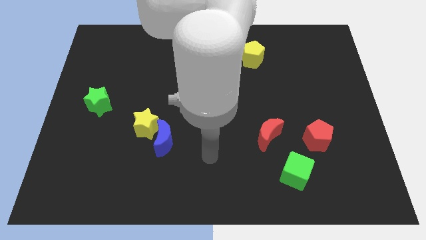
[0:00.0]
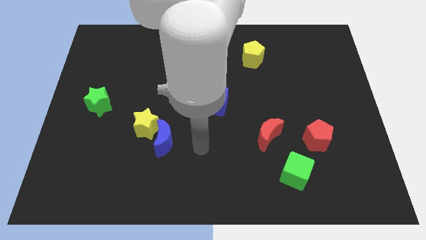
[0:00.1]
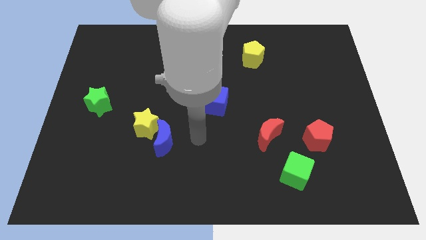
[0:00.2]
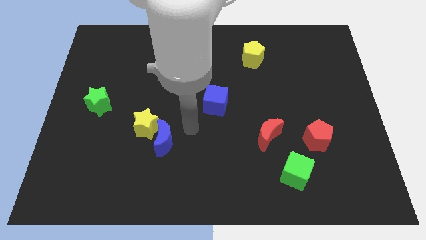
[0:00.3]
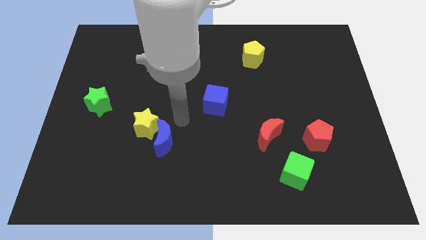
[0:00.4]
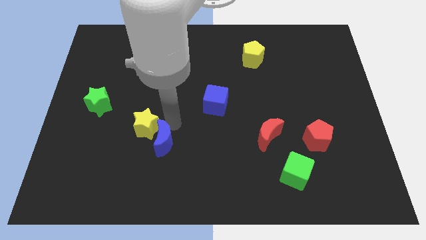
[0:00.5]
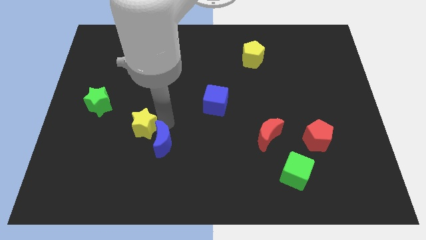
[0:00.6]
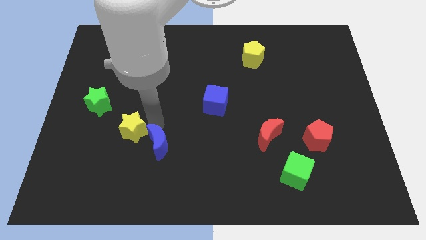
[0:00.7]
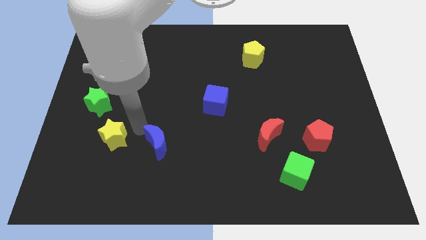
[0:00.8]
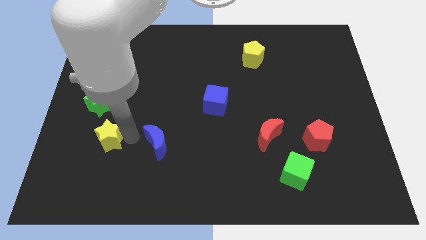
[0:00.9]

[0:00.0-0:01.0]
separate the blue moon from the yellow star

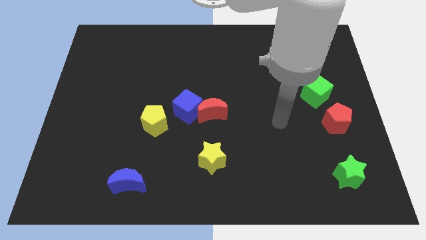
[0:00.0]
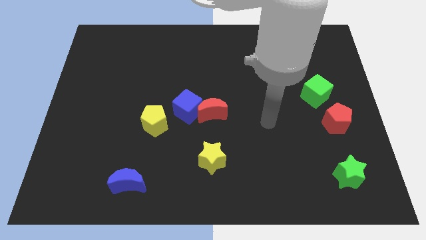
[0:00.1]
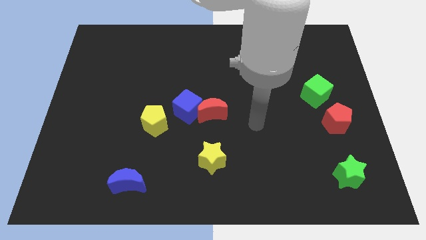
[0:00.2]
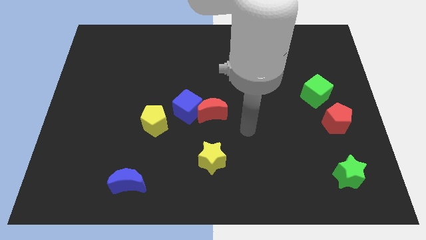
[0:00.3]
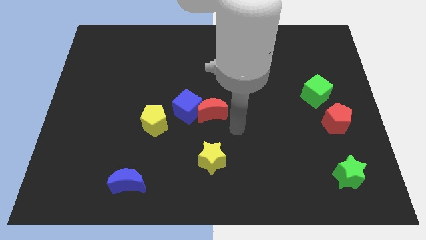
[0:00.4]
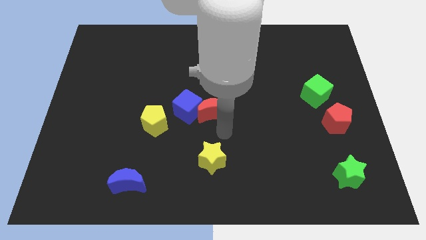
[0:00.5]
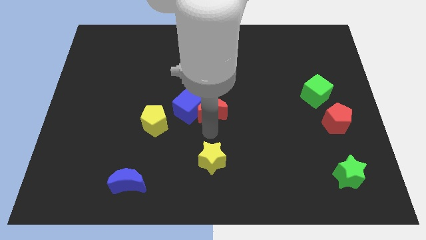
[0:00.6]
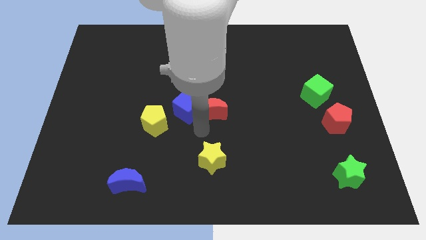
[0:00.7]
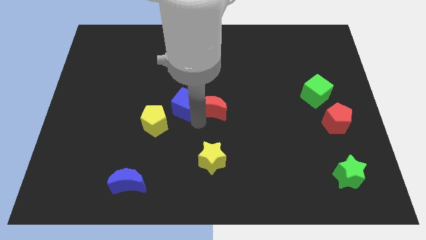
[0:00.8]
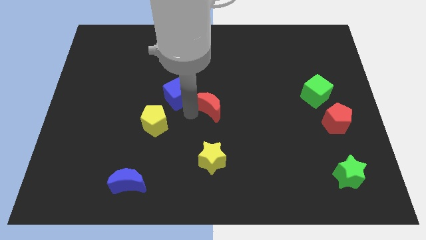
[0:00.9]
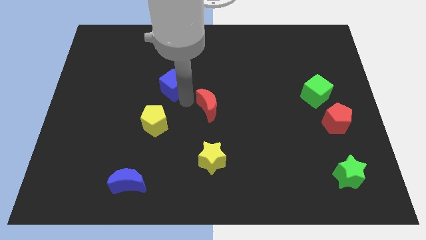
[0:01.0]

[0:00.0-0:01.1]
pull the red moon apart from the blue cube

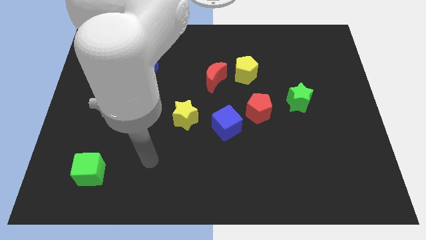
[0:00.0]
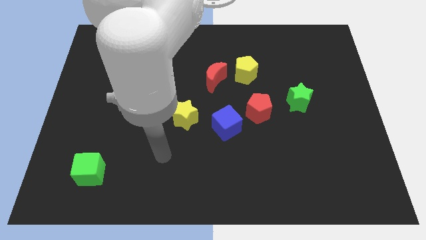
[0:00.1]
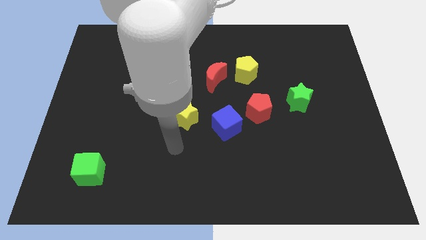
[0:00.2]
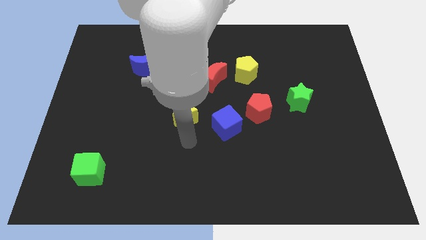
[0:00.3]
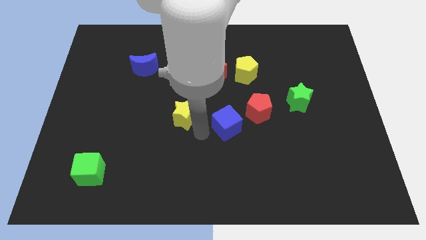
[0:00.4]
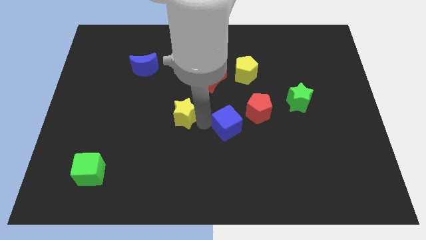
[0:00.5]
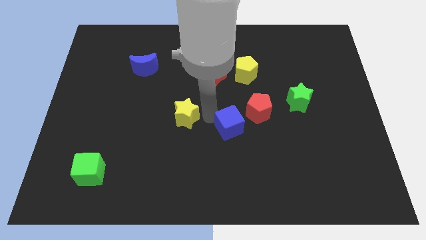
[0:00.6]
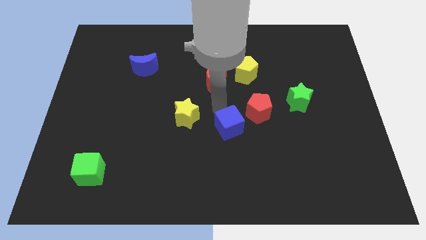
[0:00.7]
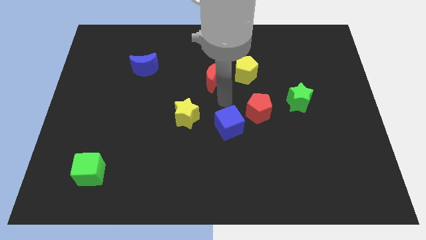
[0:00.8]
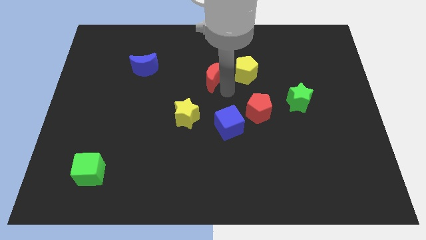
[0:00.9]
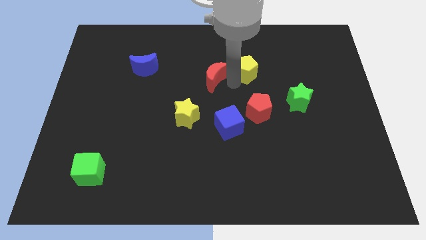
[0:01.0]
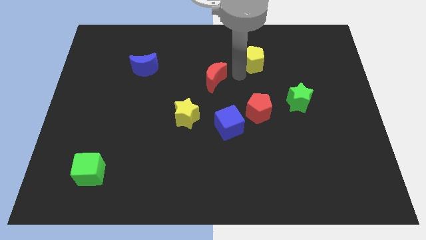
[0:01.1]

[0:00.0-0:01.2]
separate the red moon from the yellow pentagon

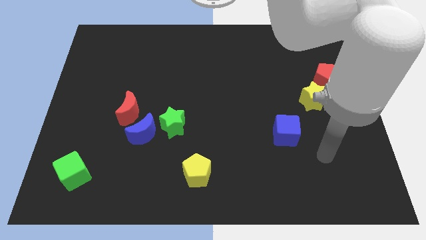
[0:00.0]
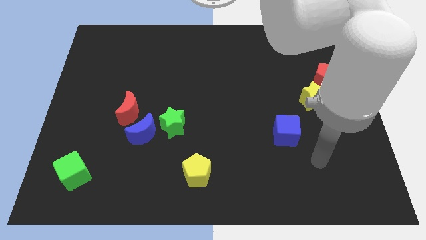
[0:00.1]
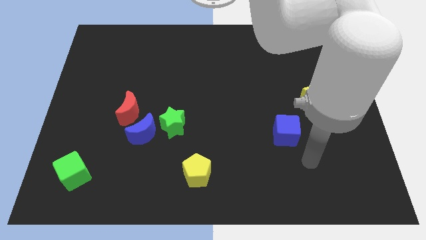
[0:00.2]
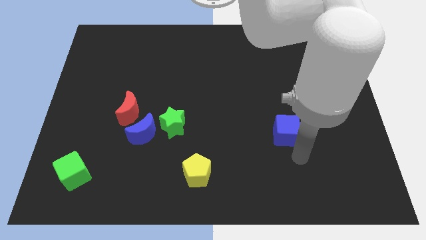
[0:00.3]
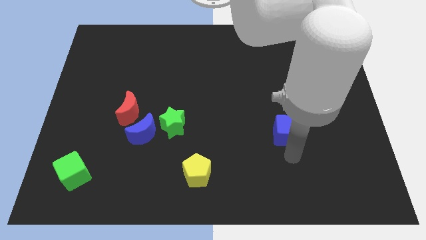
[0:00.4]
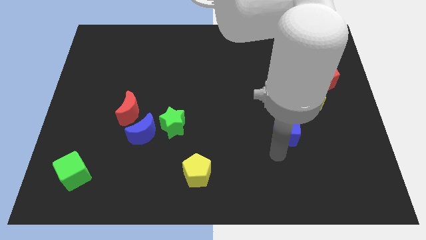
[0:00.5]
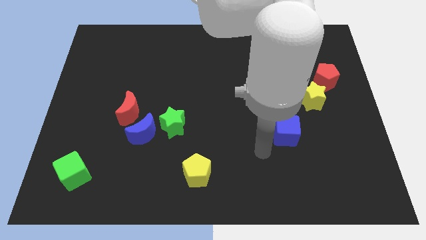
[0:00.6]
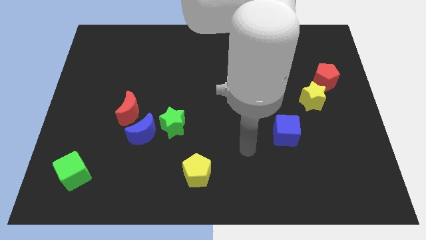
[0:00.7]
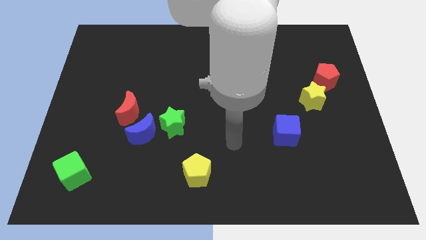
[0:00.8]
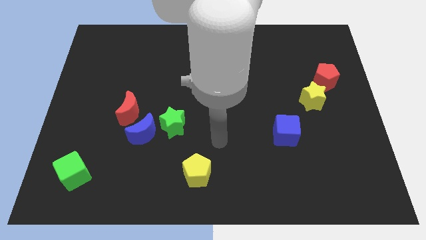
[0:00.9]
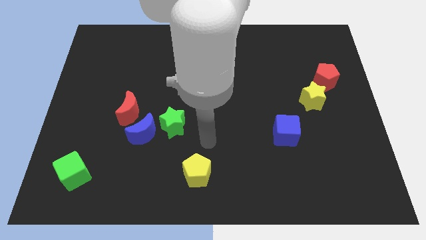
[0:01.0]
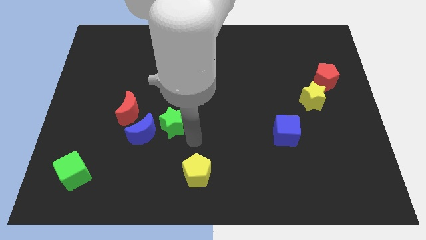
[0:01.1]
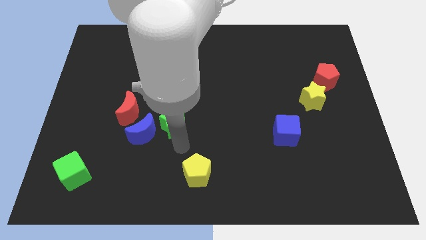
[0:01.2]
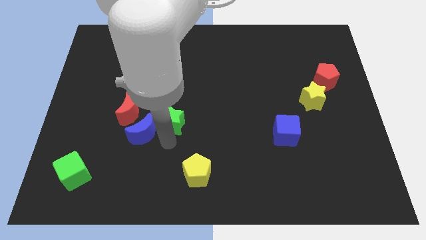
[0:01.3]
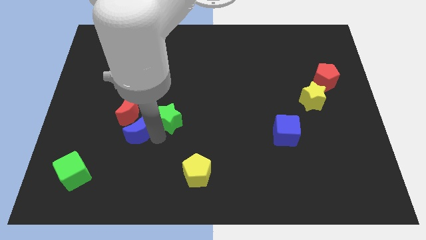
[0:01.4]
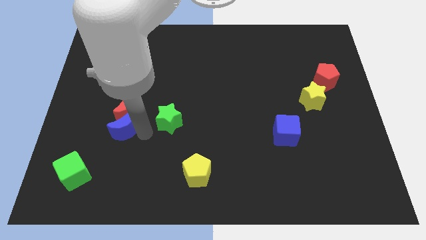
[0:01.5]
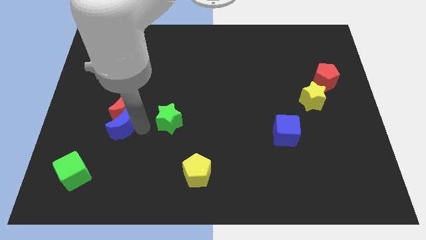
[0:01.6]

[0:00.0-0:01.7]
separate the green star from the blue moon

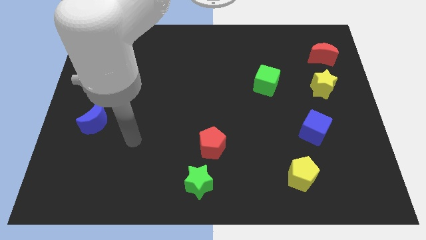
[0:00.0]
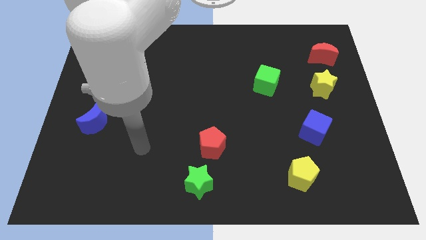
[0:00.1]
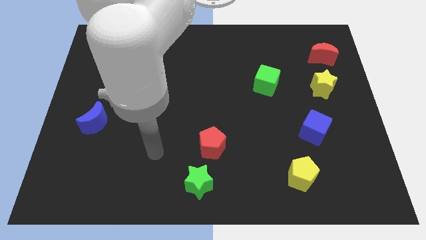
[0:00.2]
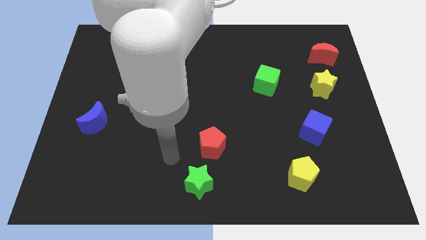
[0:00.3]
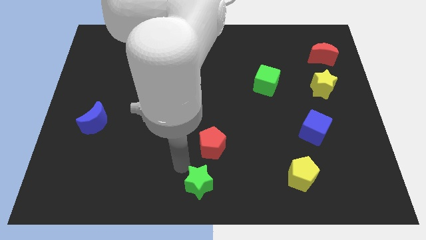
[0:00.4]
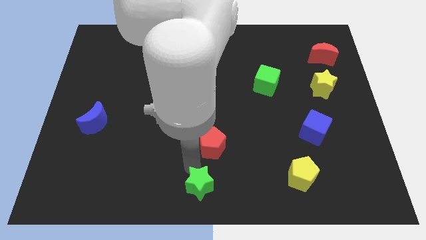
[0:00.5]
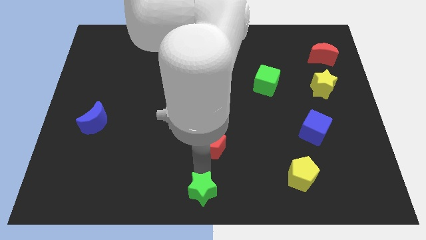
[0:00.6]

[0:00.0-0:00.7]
pull the red pentagon apart from the green star

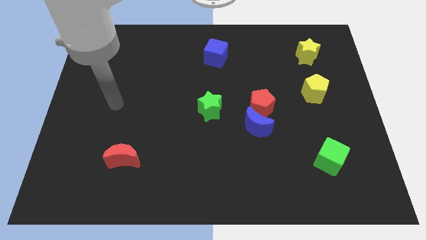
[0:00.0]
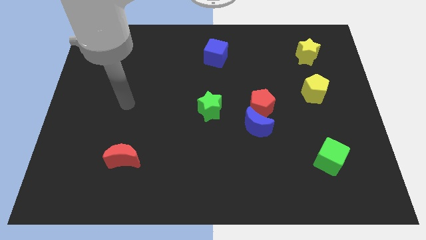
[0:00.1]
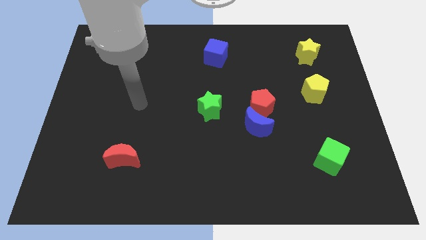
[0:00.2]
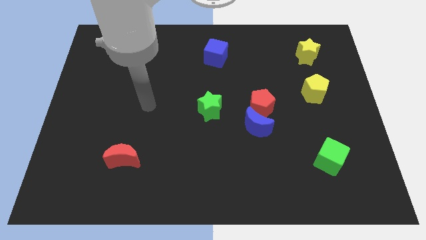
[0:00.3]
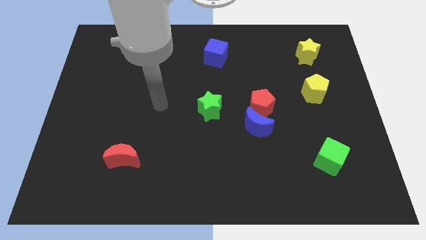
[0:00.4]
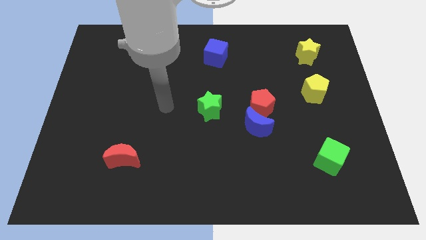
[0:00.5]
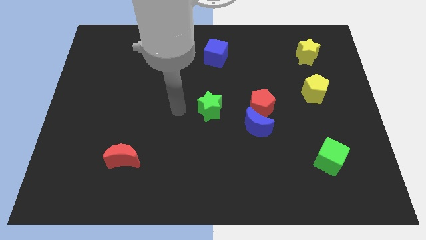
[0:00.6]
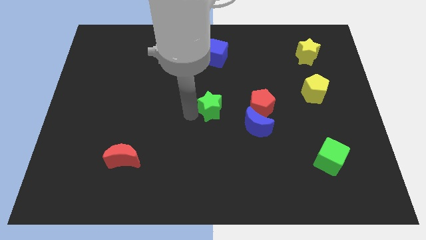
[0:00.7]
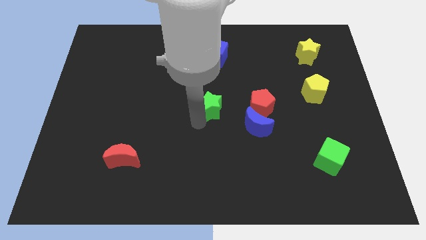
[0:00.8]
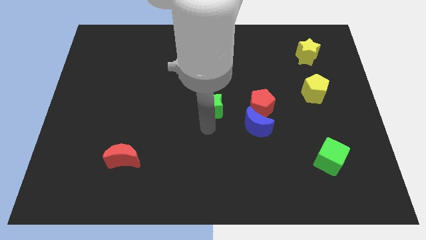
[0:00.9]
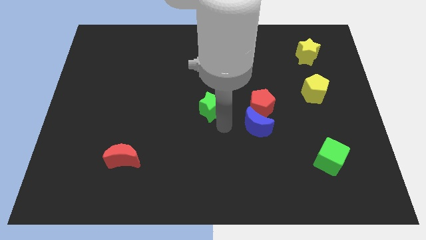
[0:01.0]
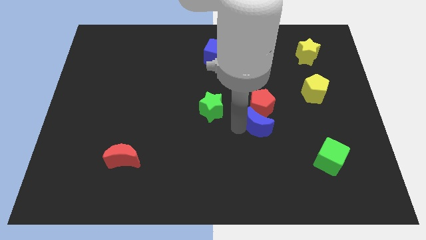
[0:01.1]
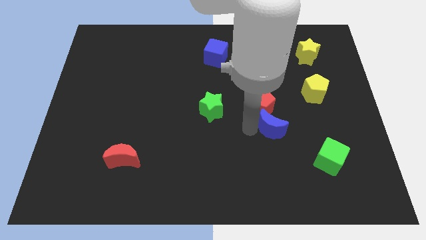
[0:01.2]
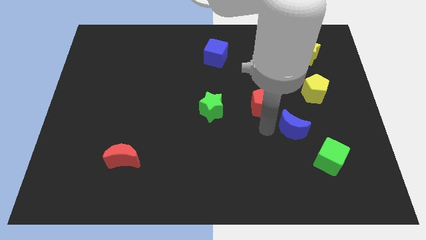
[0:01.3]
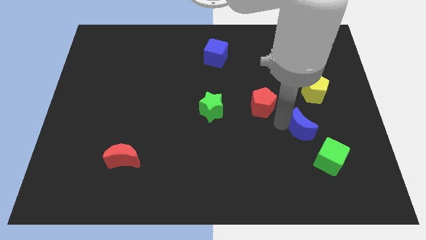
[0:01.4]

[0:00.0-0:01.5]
move the red pentagon away from the blue moon

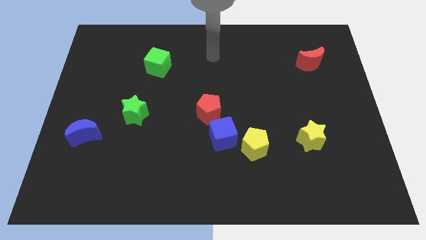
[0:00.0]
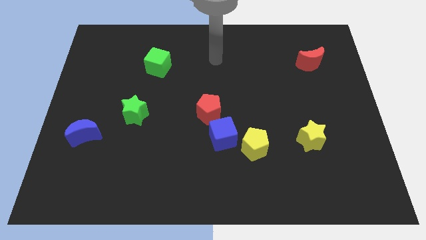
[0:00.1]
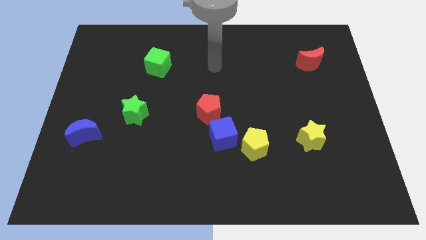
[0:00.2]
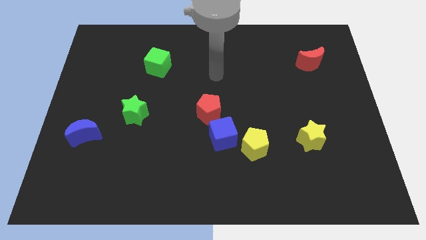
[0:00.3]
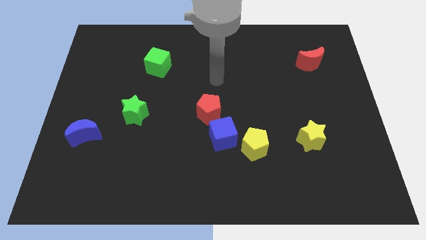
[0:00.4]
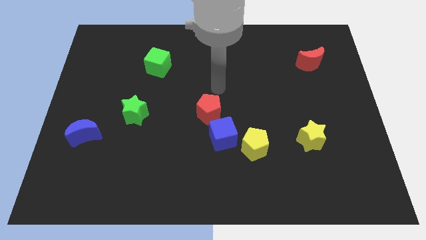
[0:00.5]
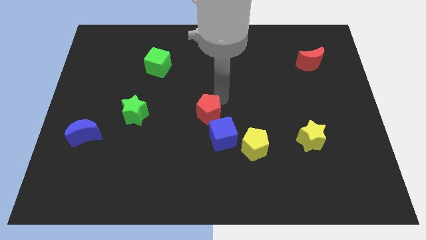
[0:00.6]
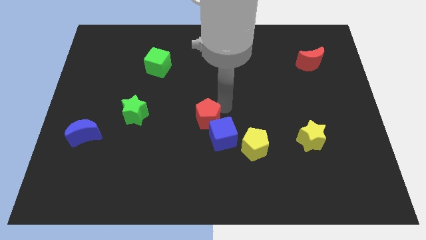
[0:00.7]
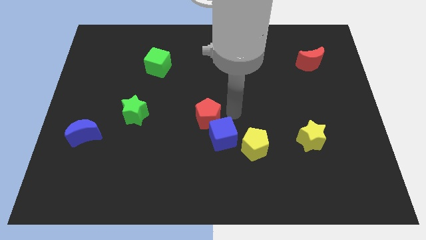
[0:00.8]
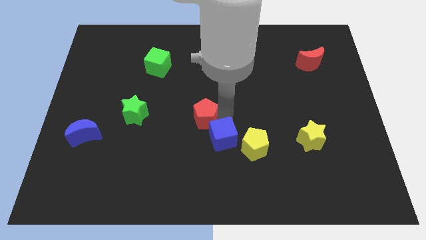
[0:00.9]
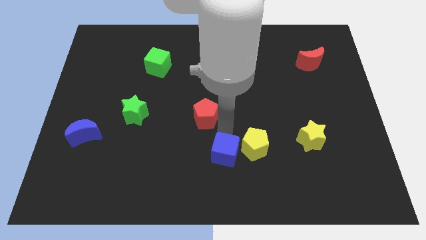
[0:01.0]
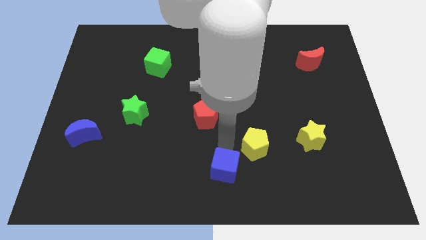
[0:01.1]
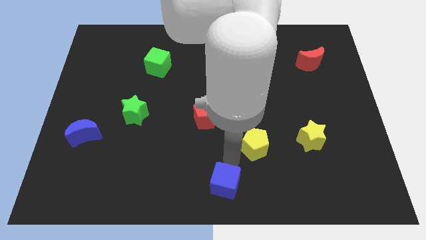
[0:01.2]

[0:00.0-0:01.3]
move the yellow pentagon away from the blue cube

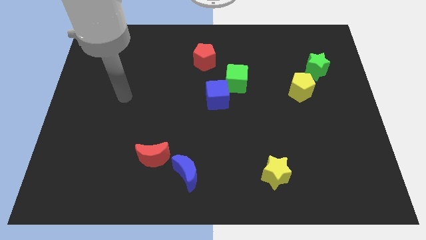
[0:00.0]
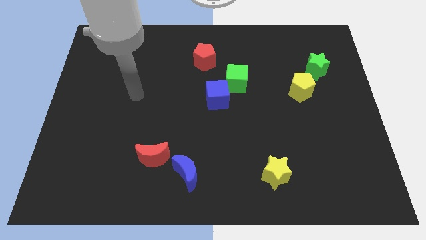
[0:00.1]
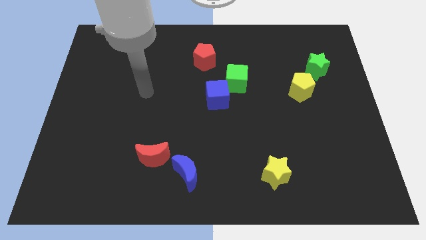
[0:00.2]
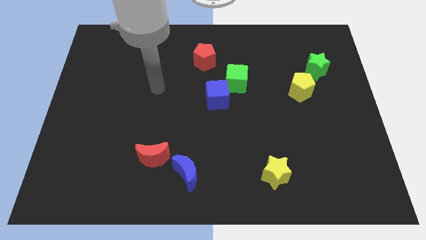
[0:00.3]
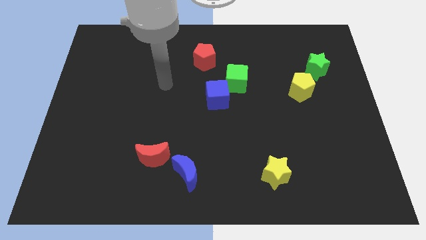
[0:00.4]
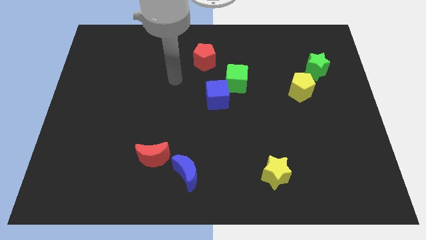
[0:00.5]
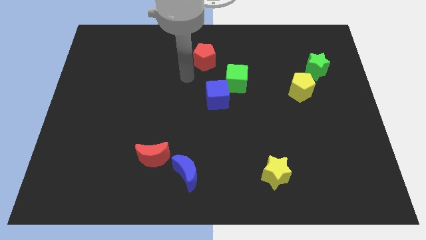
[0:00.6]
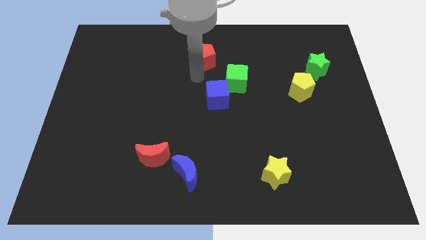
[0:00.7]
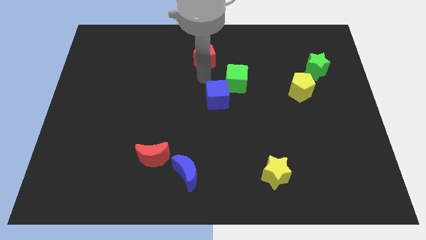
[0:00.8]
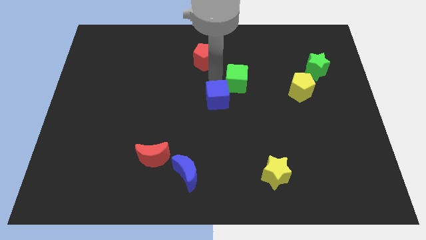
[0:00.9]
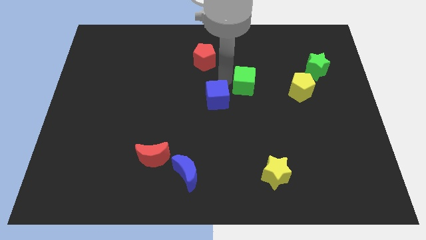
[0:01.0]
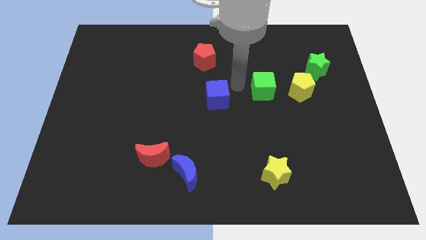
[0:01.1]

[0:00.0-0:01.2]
pull the blue cube apart from the green cube
